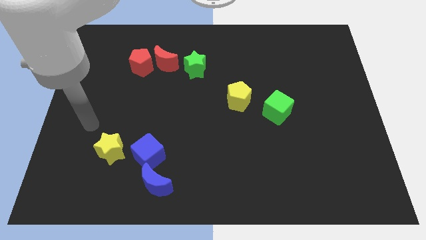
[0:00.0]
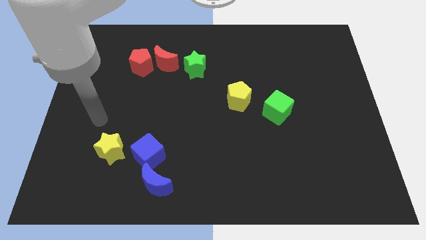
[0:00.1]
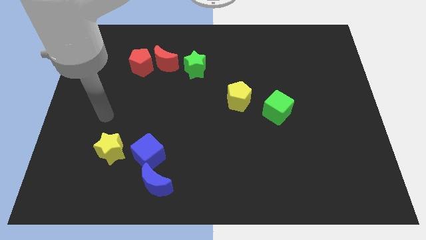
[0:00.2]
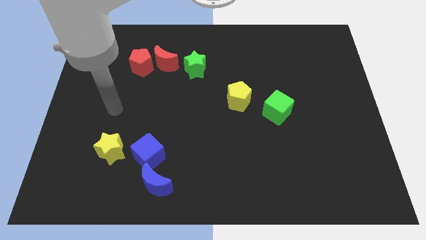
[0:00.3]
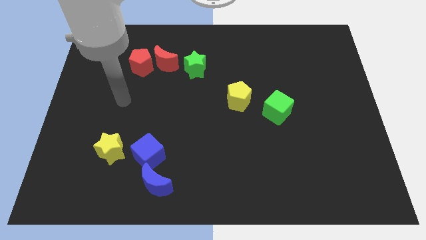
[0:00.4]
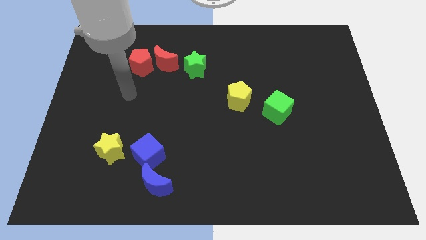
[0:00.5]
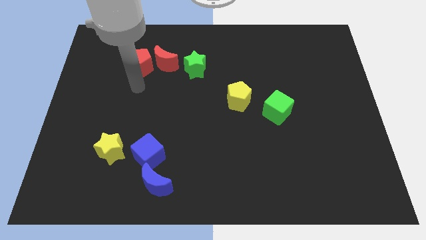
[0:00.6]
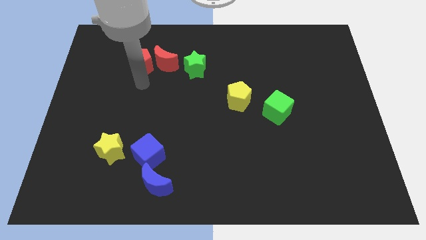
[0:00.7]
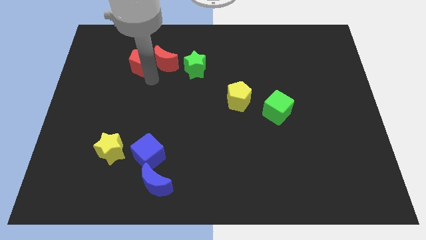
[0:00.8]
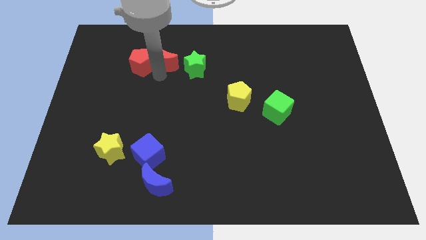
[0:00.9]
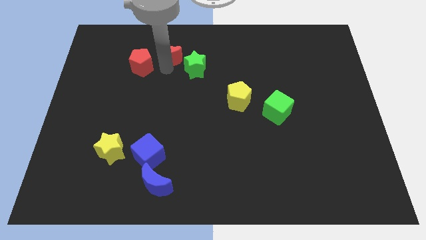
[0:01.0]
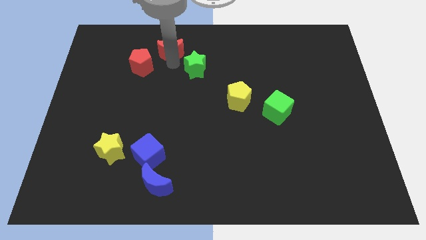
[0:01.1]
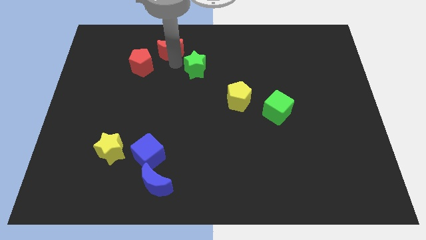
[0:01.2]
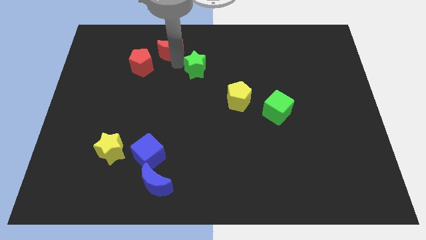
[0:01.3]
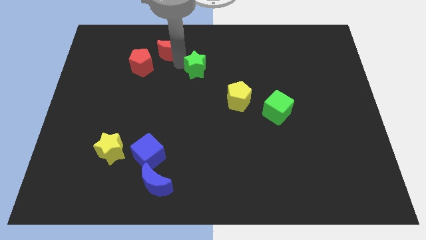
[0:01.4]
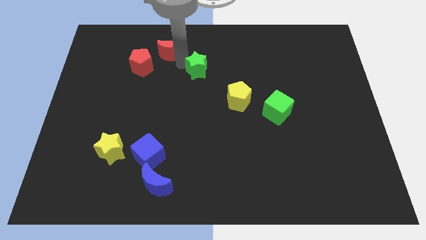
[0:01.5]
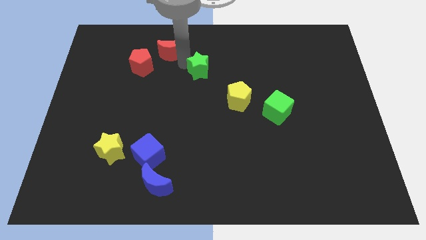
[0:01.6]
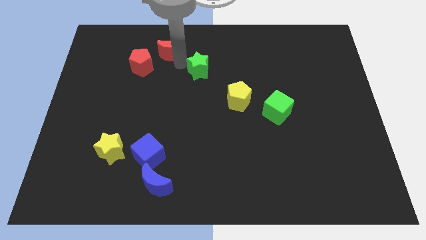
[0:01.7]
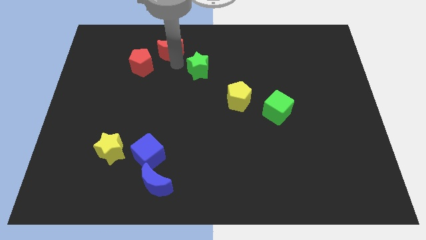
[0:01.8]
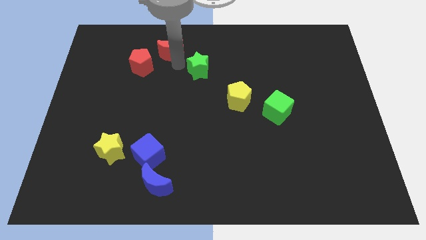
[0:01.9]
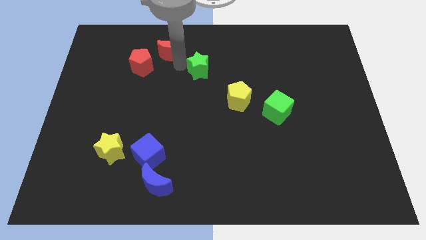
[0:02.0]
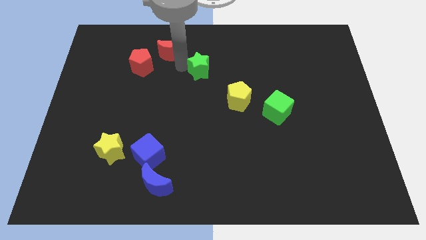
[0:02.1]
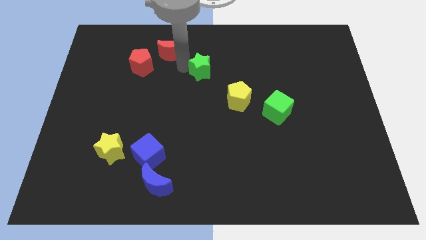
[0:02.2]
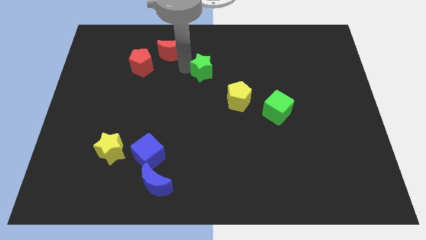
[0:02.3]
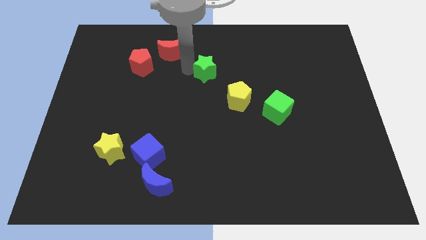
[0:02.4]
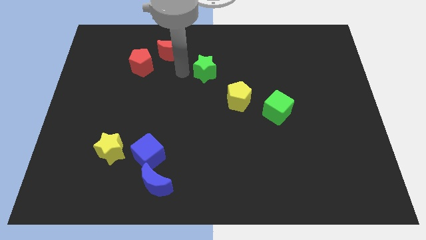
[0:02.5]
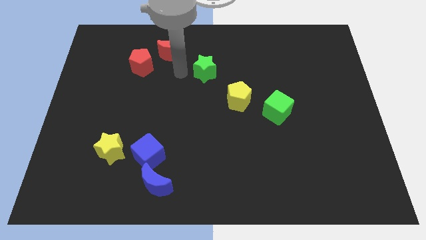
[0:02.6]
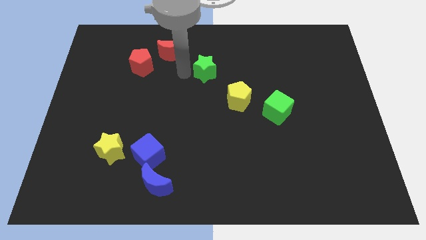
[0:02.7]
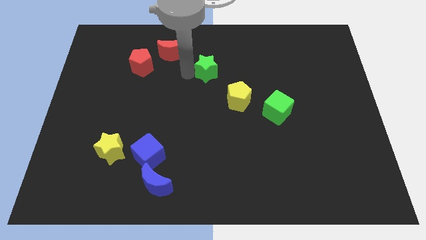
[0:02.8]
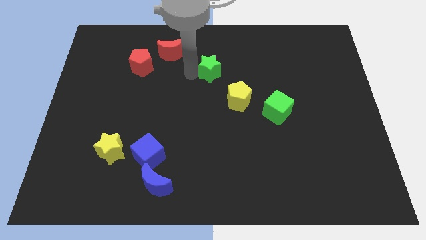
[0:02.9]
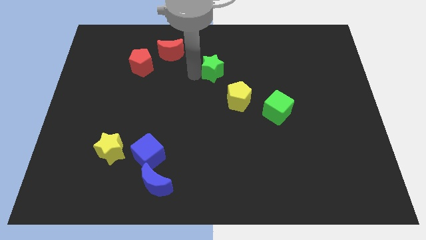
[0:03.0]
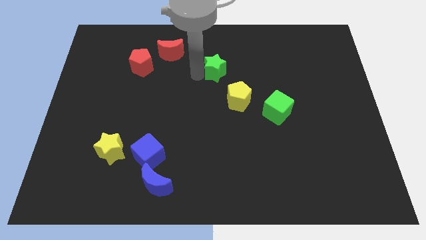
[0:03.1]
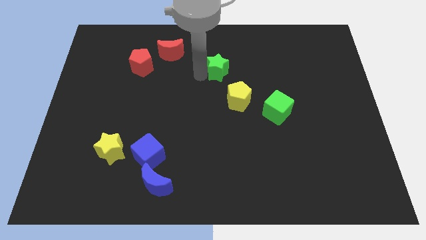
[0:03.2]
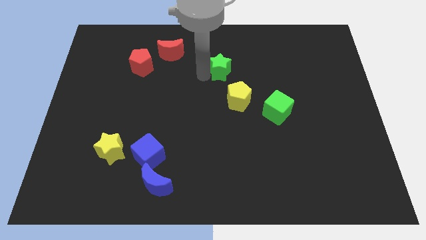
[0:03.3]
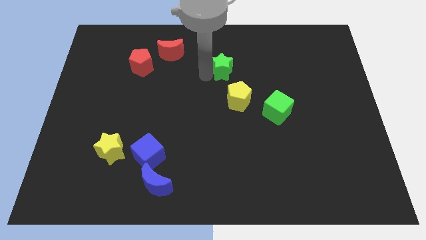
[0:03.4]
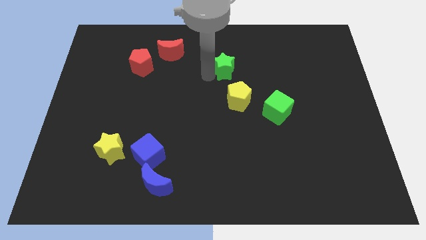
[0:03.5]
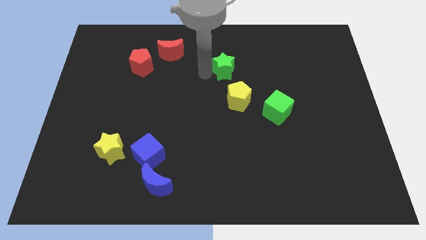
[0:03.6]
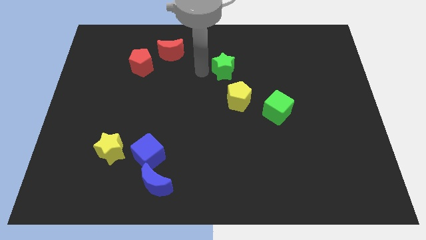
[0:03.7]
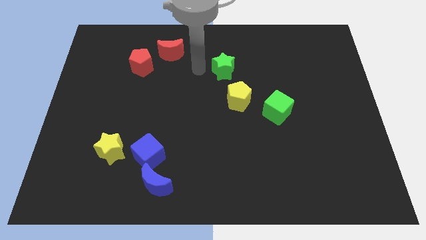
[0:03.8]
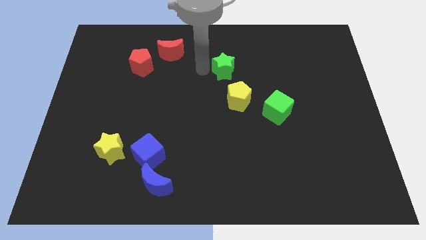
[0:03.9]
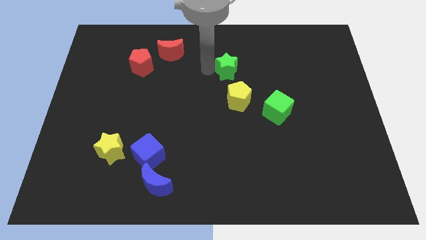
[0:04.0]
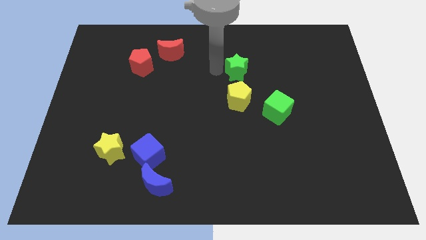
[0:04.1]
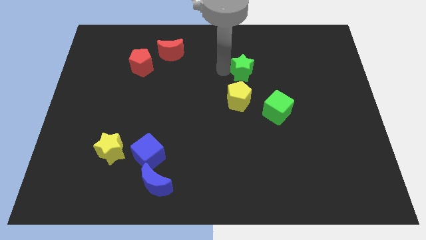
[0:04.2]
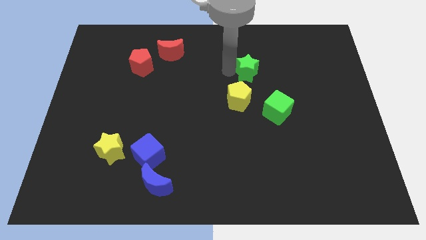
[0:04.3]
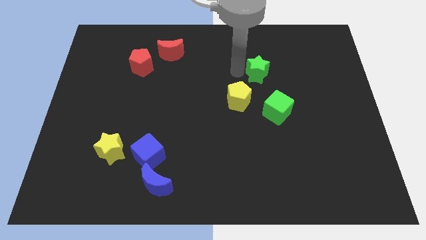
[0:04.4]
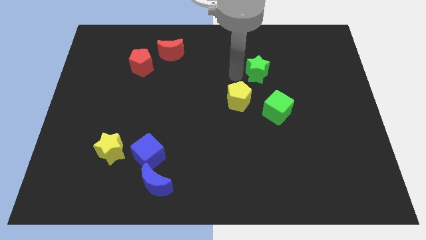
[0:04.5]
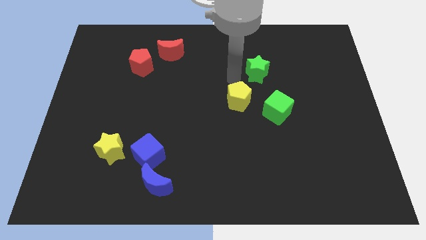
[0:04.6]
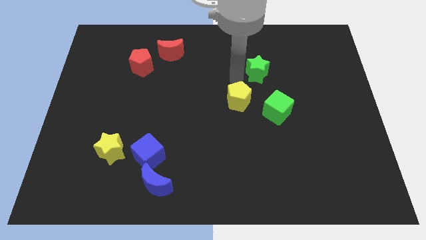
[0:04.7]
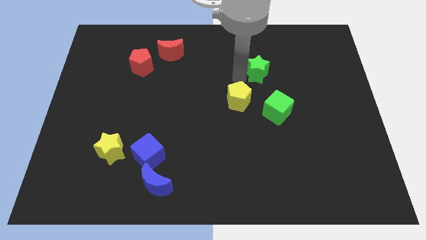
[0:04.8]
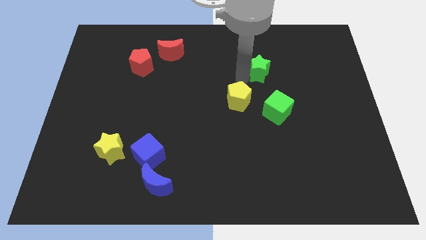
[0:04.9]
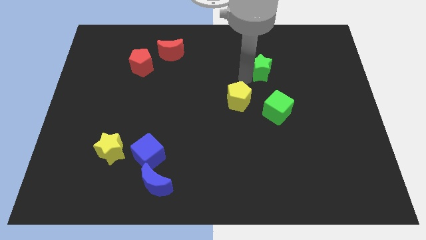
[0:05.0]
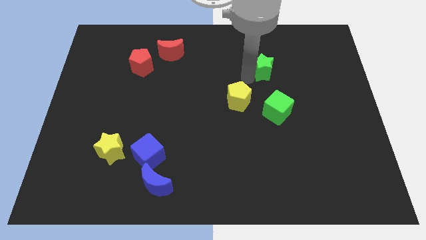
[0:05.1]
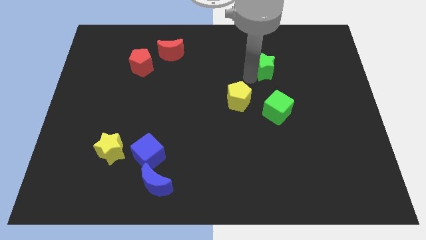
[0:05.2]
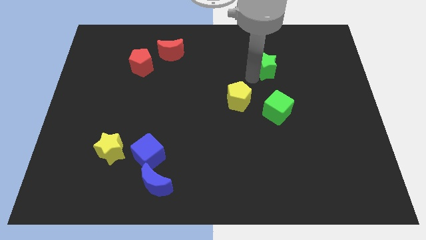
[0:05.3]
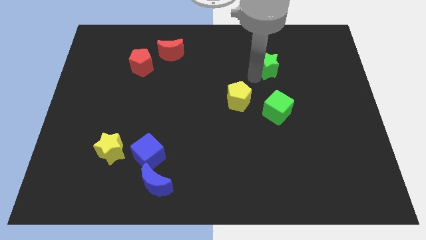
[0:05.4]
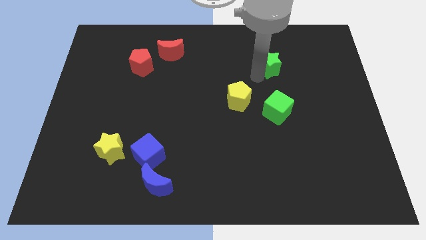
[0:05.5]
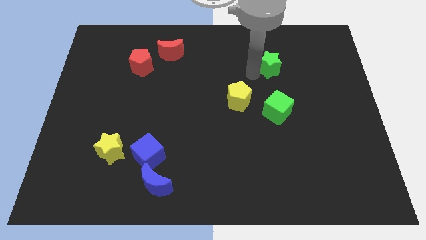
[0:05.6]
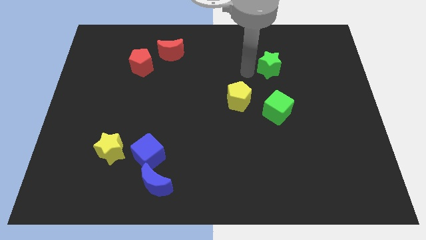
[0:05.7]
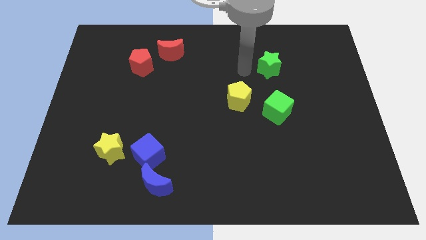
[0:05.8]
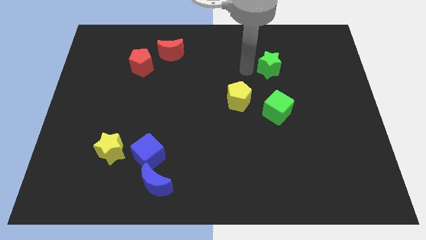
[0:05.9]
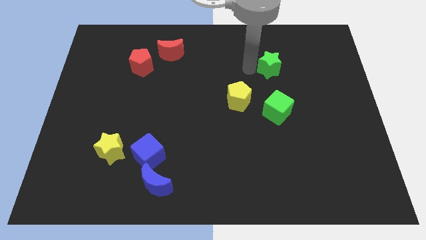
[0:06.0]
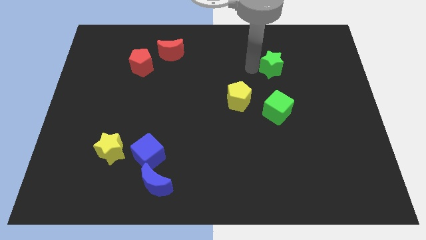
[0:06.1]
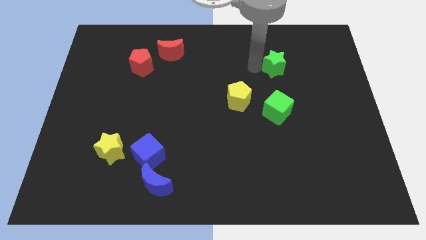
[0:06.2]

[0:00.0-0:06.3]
move the green star to the right

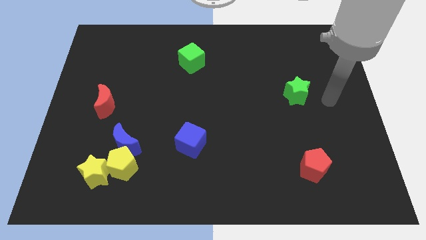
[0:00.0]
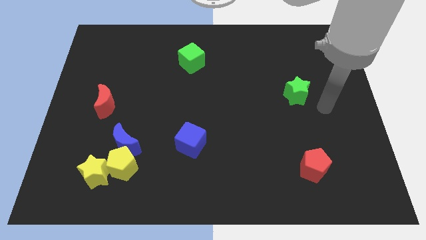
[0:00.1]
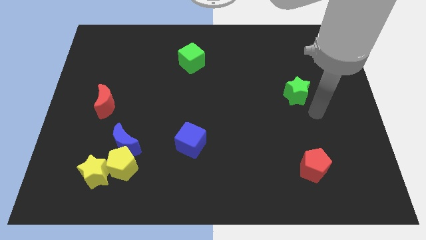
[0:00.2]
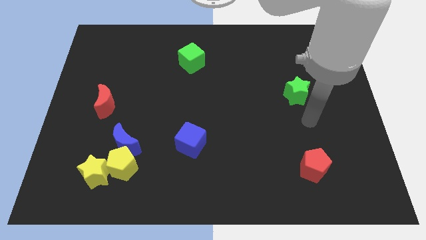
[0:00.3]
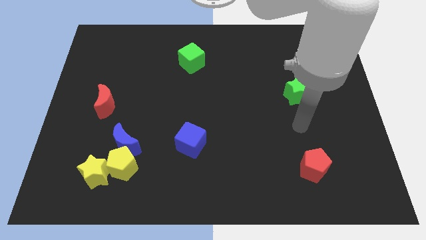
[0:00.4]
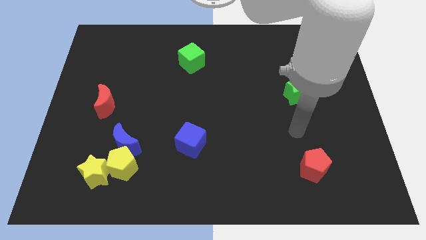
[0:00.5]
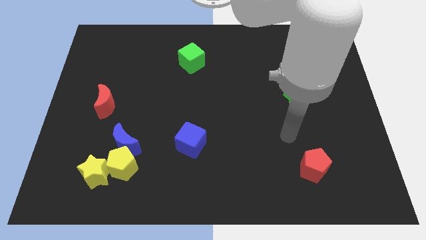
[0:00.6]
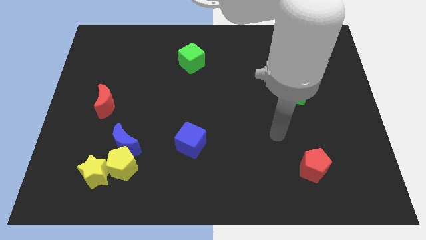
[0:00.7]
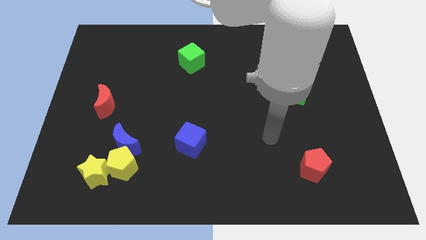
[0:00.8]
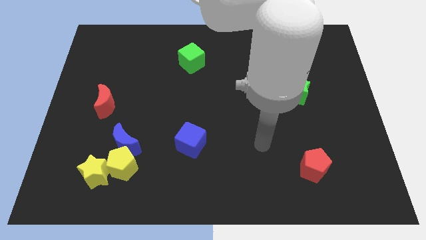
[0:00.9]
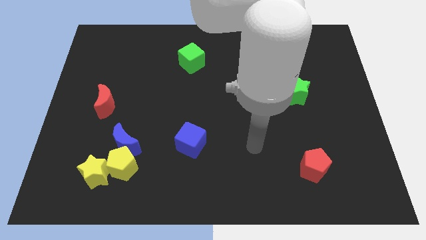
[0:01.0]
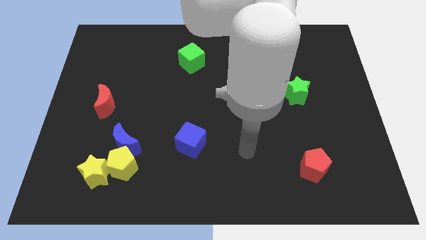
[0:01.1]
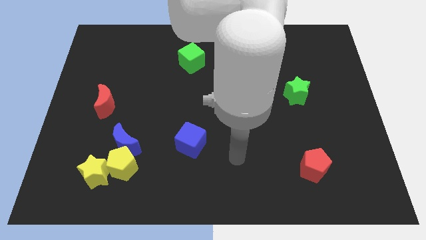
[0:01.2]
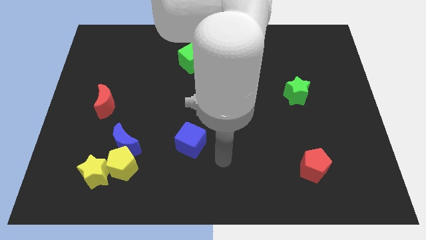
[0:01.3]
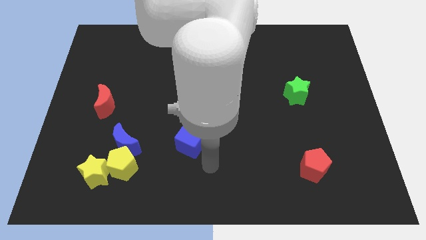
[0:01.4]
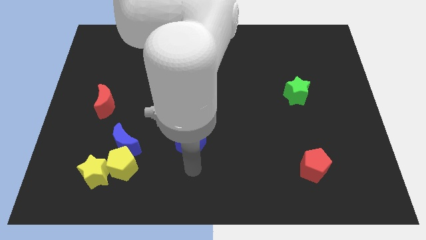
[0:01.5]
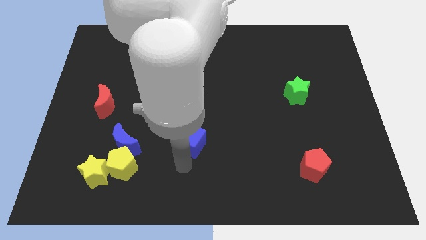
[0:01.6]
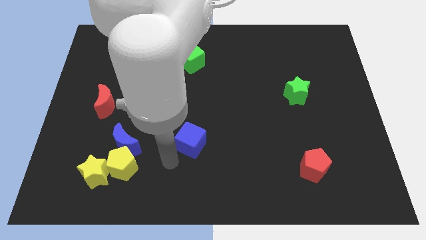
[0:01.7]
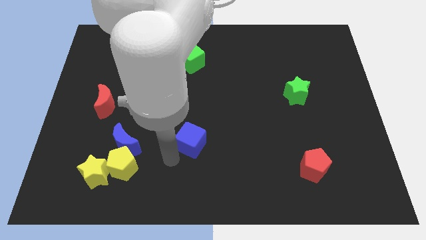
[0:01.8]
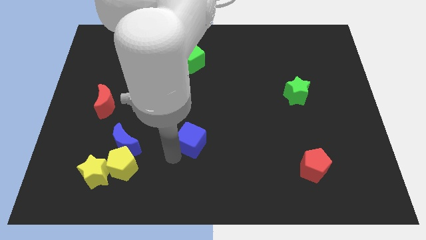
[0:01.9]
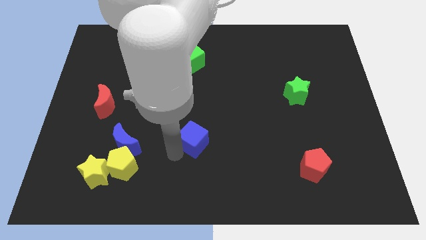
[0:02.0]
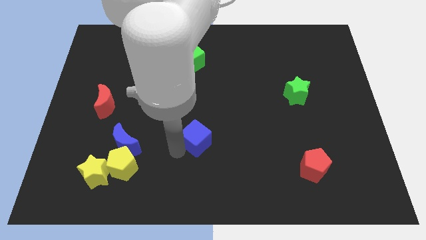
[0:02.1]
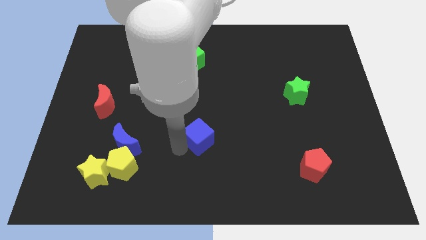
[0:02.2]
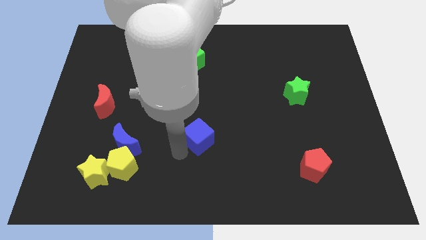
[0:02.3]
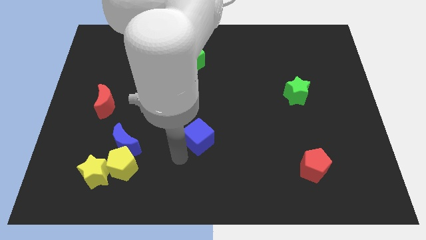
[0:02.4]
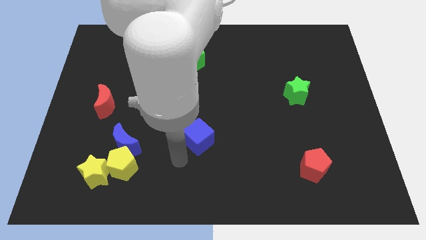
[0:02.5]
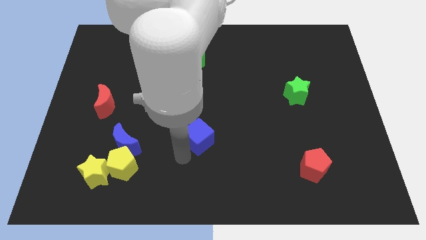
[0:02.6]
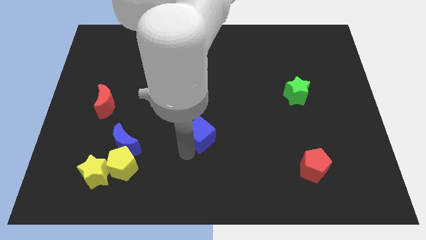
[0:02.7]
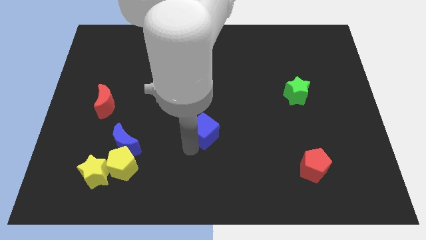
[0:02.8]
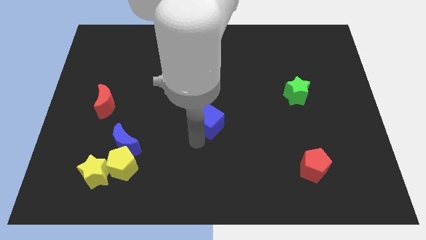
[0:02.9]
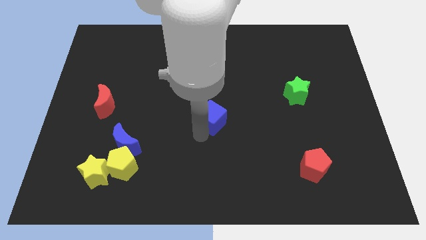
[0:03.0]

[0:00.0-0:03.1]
move the blue cube a little up and then to the right
